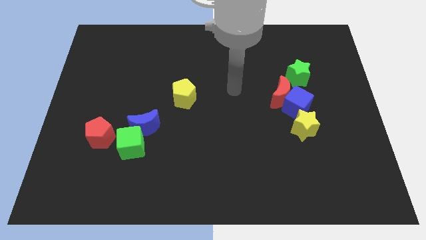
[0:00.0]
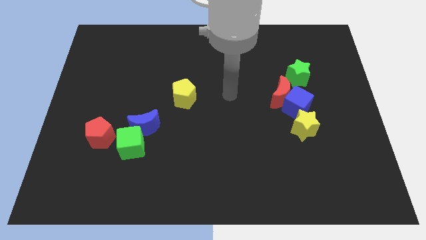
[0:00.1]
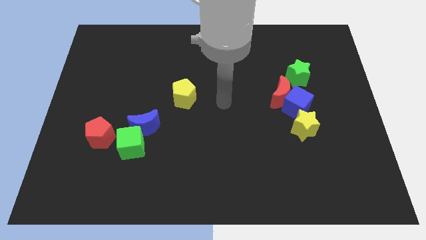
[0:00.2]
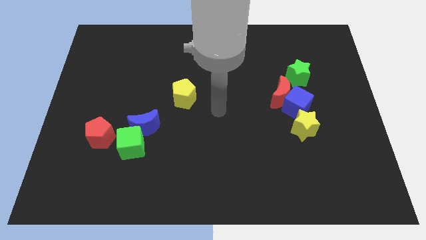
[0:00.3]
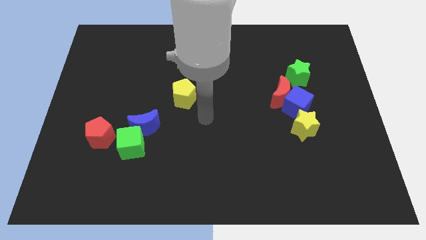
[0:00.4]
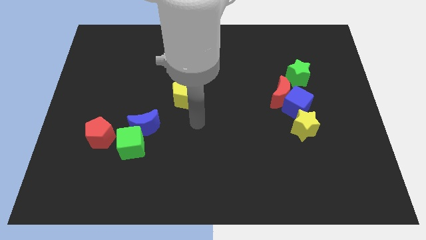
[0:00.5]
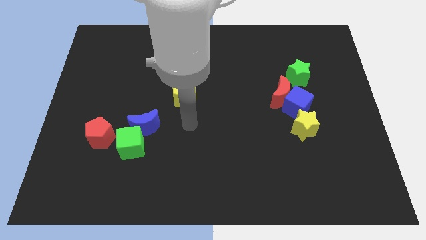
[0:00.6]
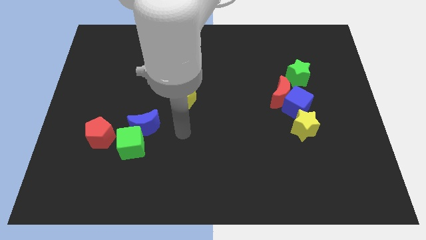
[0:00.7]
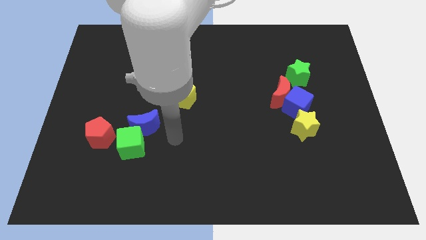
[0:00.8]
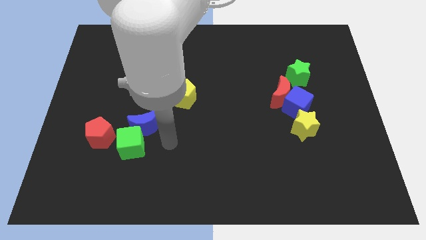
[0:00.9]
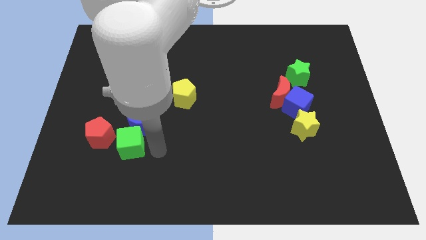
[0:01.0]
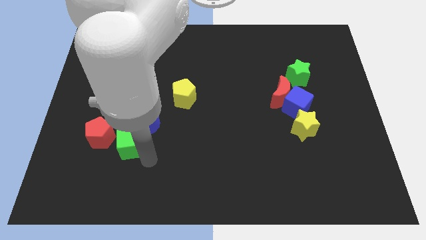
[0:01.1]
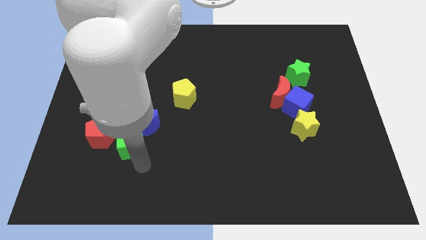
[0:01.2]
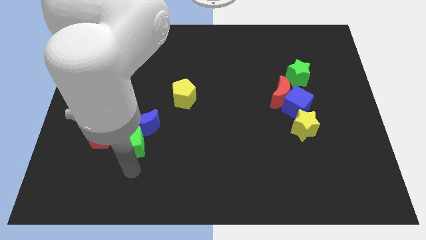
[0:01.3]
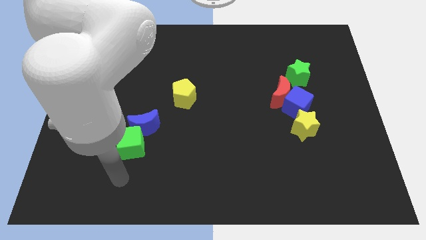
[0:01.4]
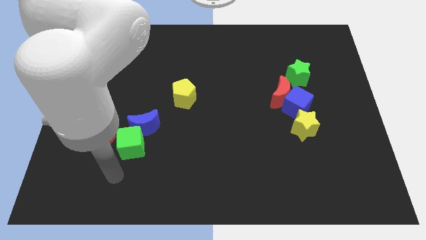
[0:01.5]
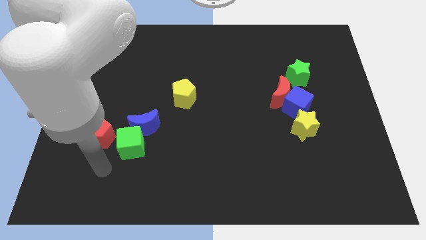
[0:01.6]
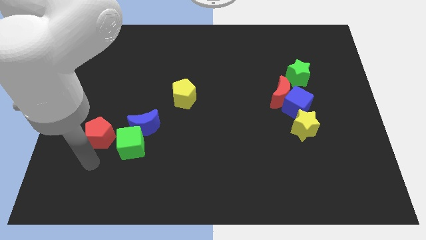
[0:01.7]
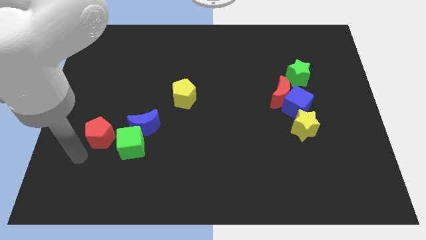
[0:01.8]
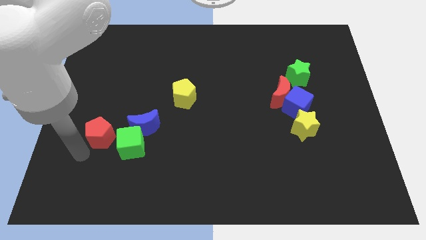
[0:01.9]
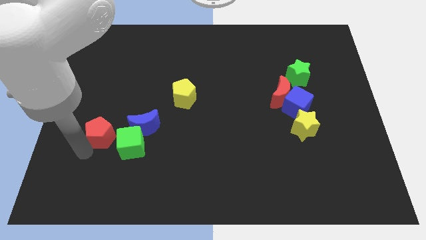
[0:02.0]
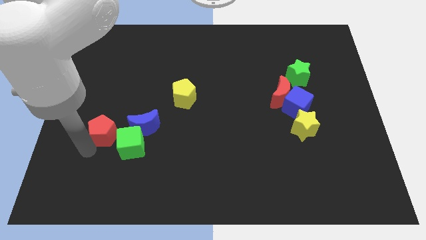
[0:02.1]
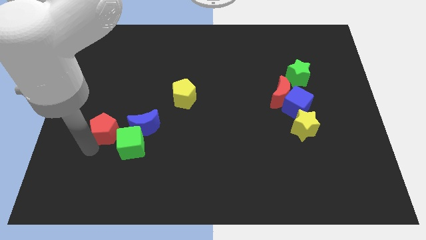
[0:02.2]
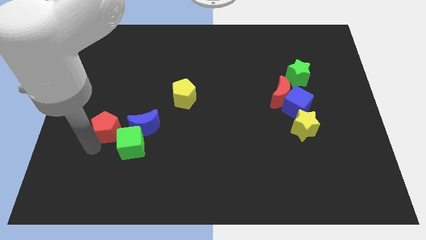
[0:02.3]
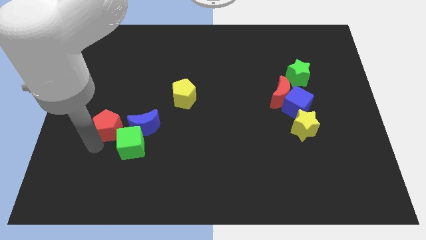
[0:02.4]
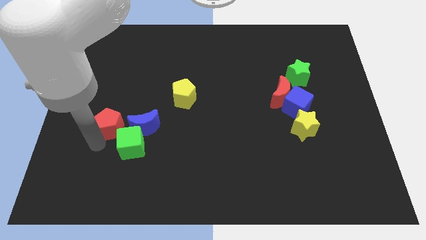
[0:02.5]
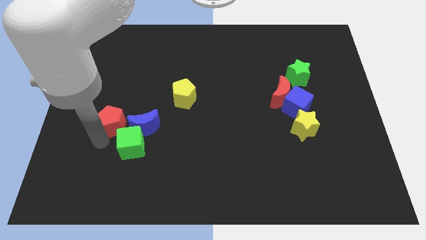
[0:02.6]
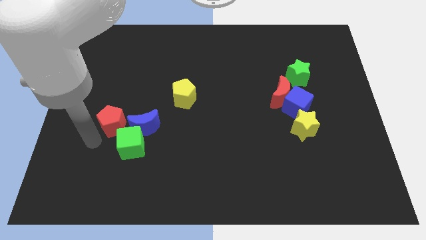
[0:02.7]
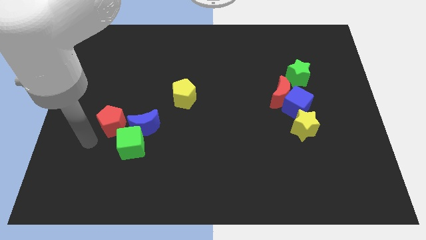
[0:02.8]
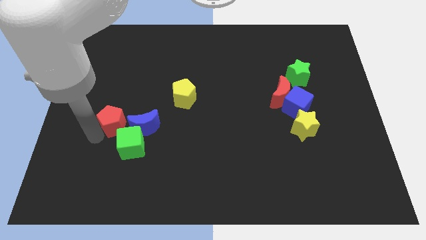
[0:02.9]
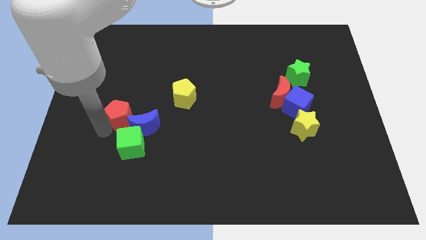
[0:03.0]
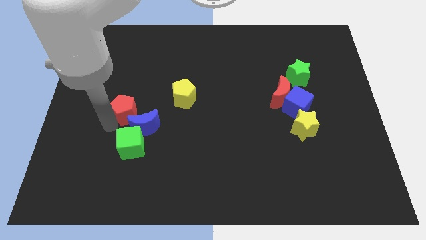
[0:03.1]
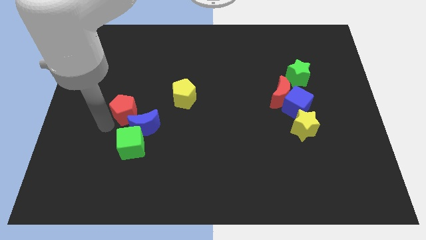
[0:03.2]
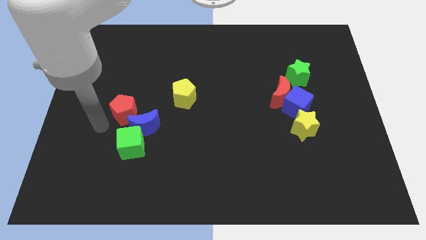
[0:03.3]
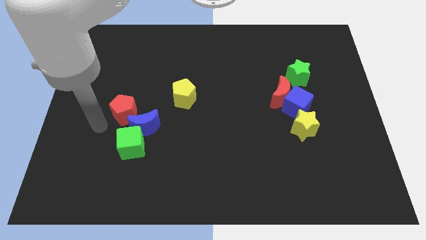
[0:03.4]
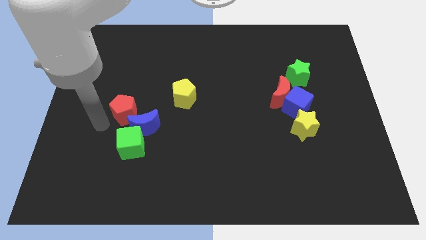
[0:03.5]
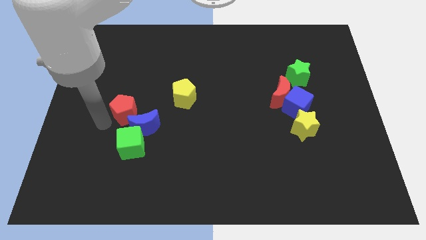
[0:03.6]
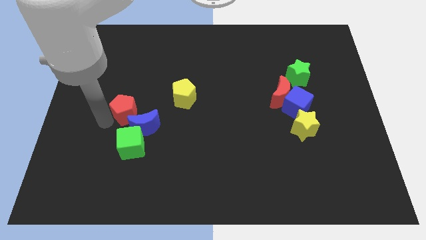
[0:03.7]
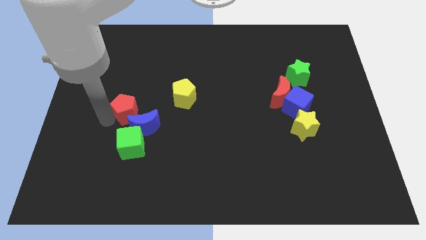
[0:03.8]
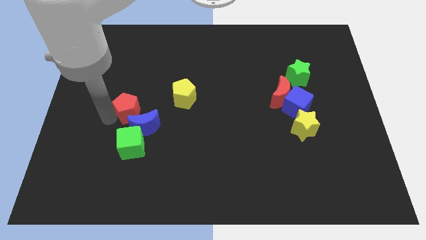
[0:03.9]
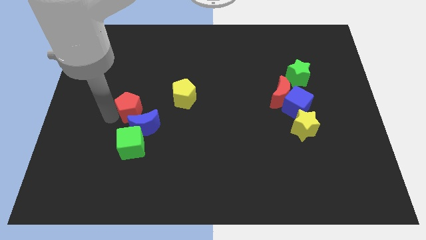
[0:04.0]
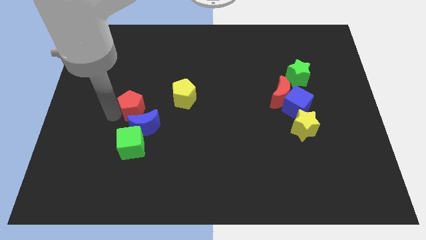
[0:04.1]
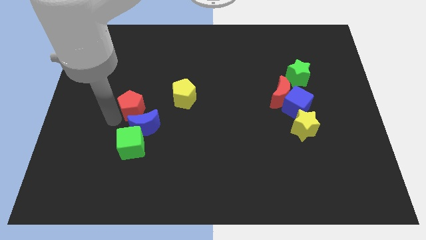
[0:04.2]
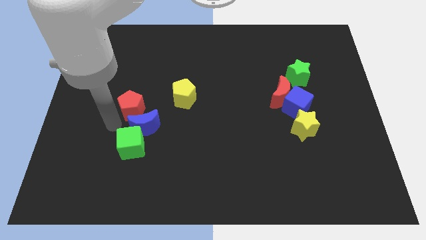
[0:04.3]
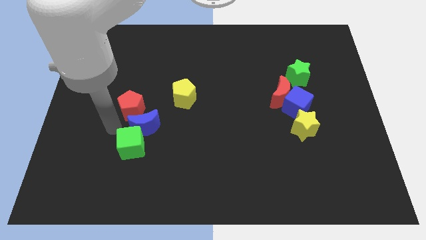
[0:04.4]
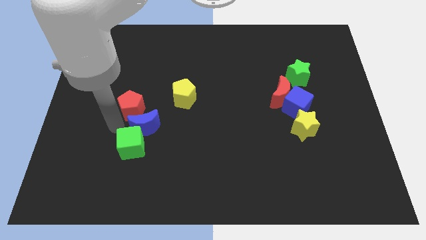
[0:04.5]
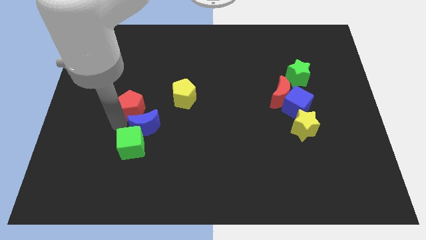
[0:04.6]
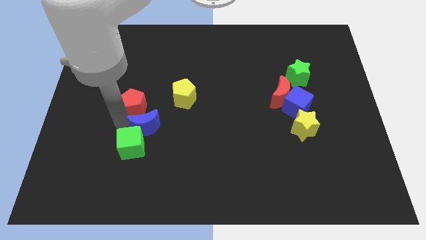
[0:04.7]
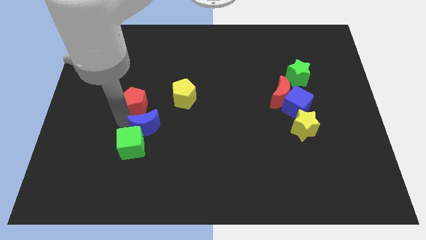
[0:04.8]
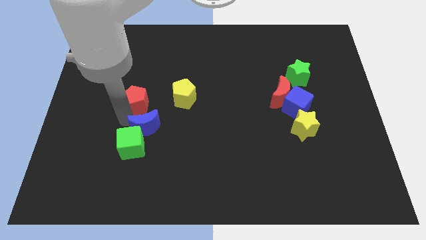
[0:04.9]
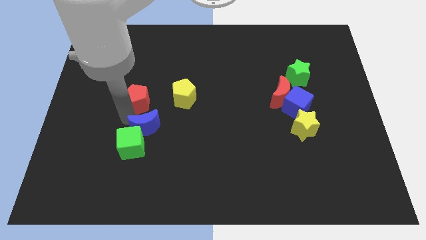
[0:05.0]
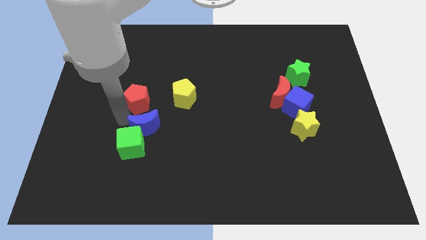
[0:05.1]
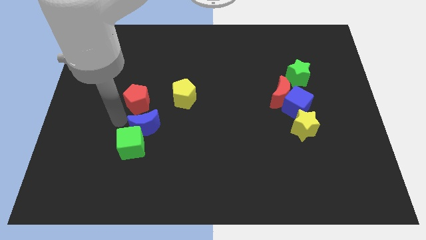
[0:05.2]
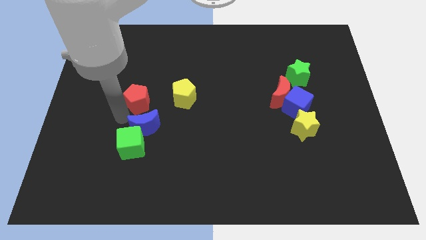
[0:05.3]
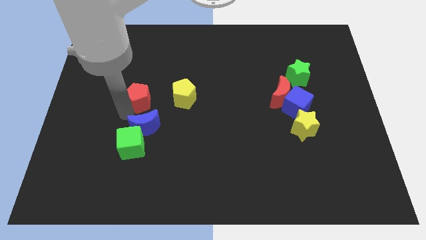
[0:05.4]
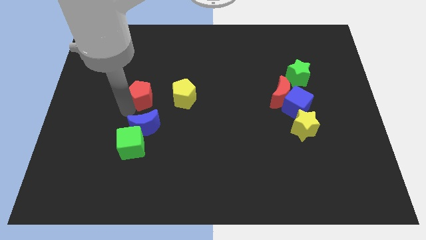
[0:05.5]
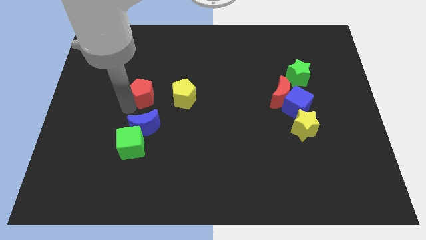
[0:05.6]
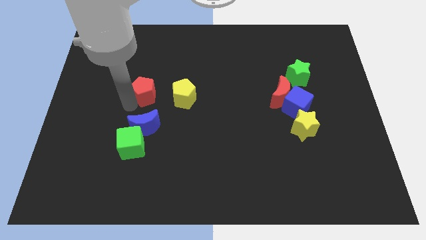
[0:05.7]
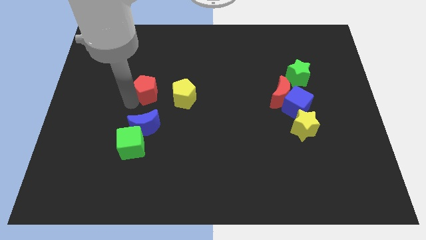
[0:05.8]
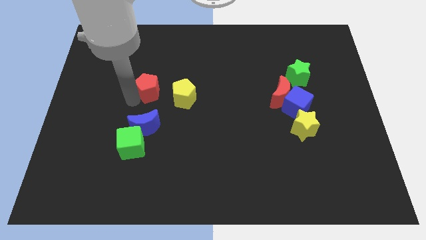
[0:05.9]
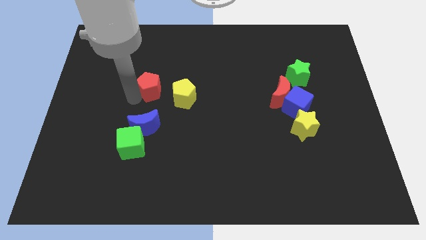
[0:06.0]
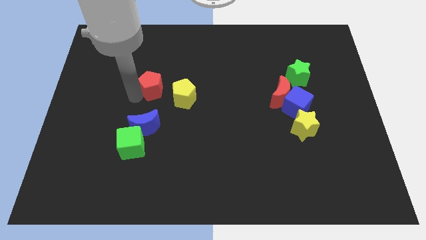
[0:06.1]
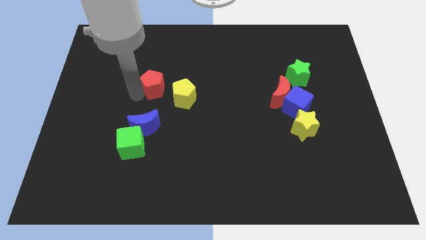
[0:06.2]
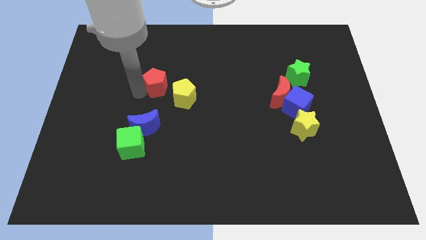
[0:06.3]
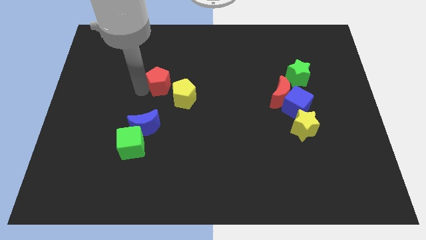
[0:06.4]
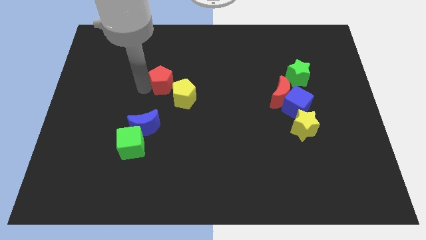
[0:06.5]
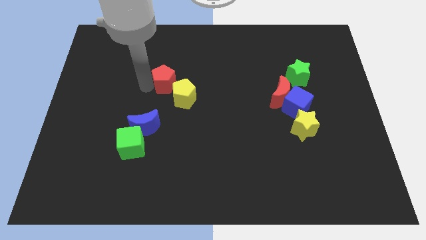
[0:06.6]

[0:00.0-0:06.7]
slide the red pentagon upwards and then right

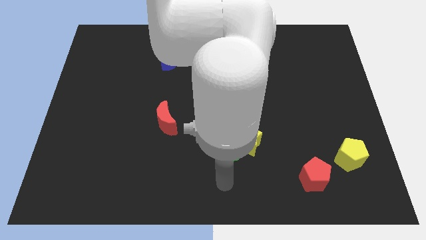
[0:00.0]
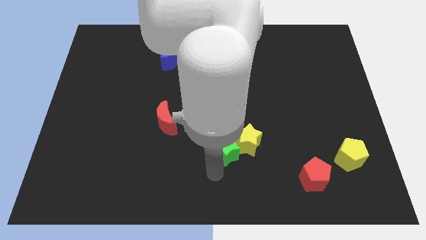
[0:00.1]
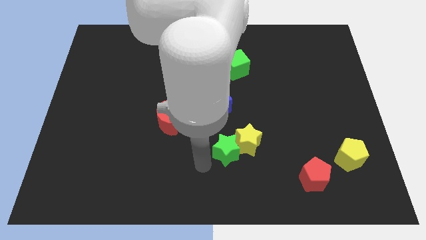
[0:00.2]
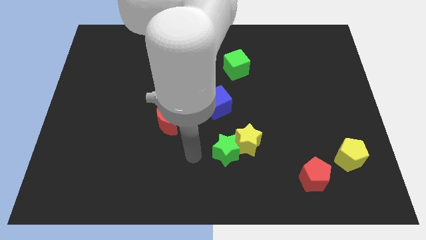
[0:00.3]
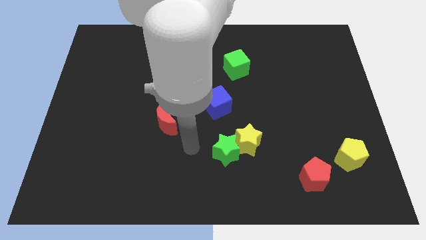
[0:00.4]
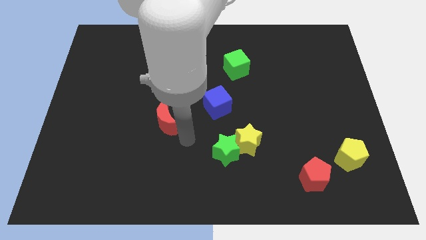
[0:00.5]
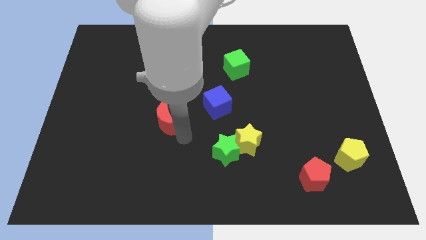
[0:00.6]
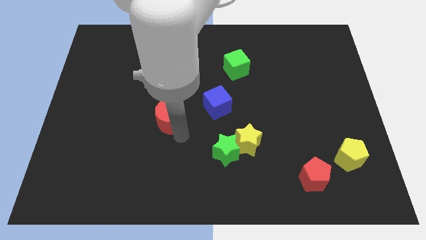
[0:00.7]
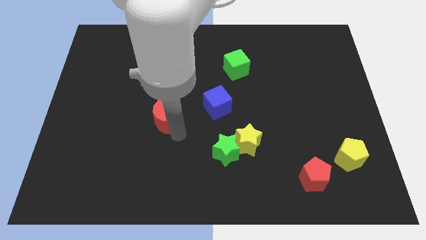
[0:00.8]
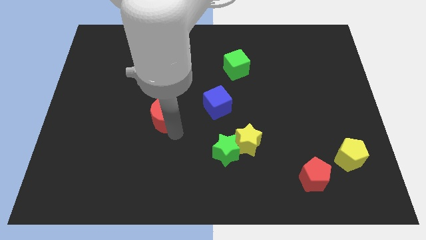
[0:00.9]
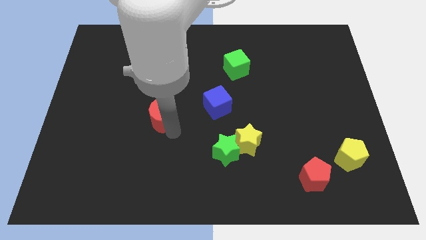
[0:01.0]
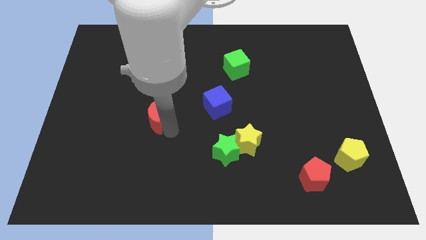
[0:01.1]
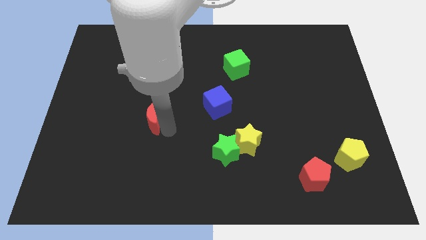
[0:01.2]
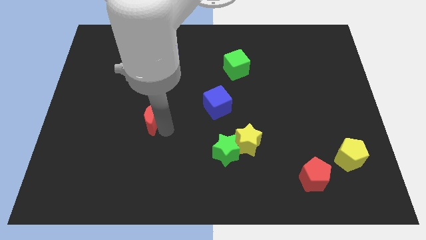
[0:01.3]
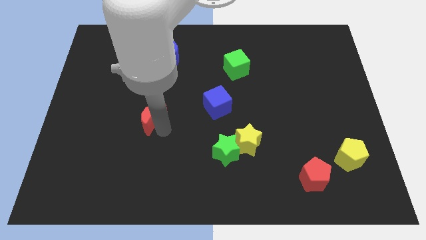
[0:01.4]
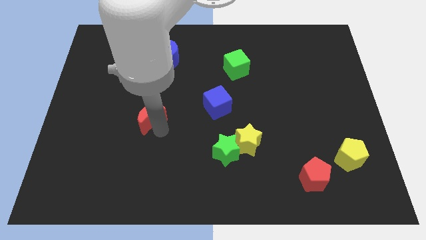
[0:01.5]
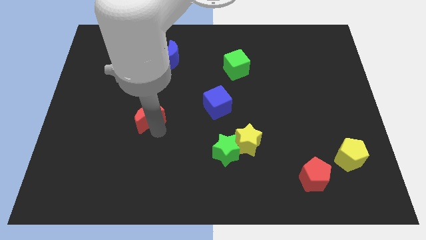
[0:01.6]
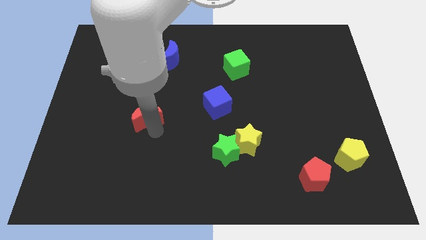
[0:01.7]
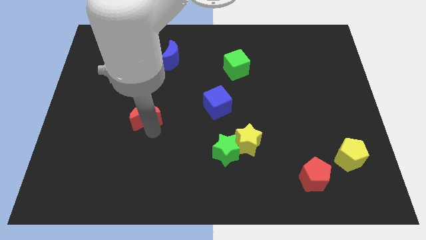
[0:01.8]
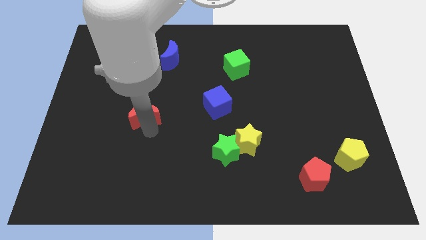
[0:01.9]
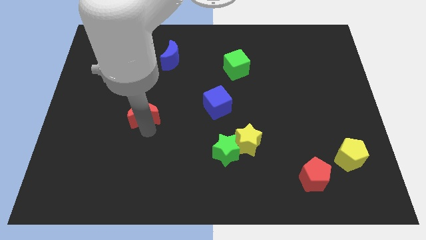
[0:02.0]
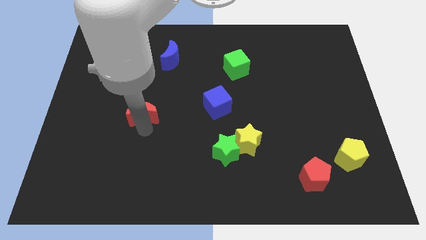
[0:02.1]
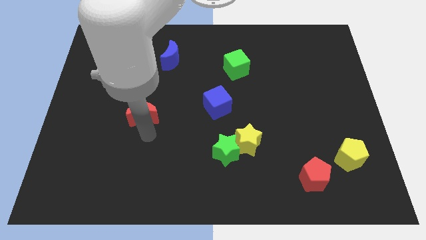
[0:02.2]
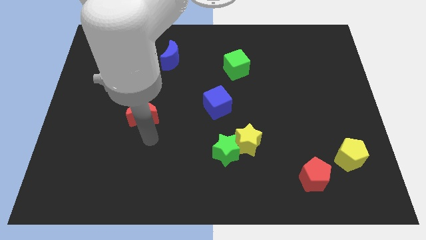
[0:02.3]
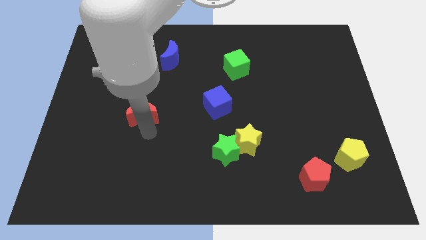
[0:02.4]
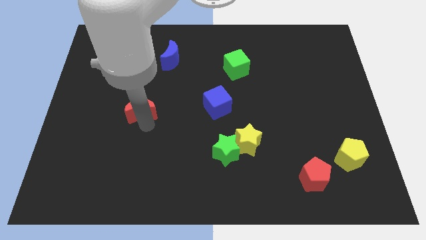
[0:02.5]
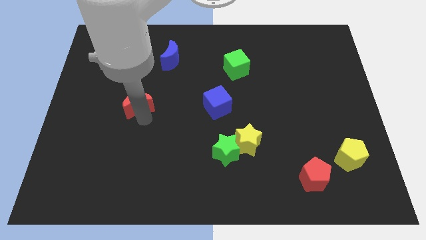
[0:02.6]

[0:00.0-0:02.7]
slightly push the red moon upwards and to the left diagonally
